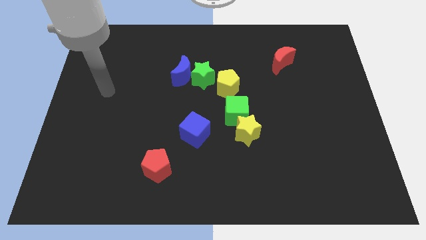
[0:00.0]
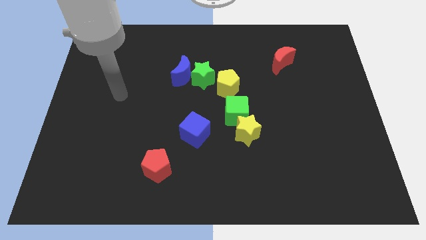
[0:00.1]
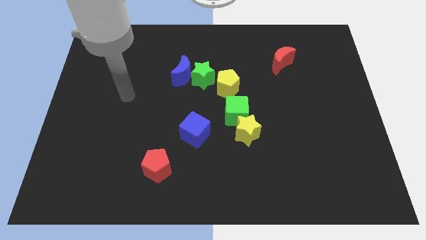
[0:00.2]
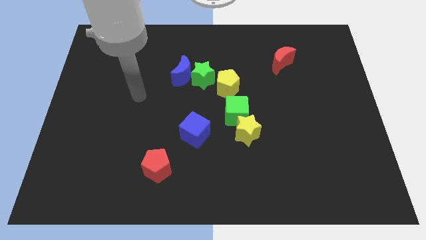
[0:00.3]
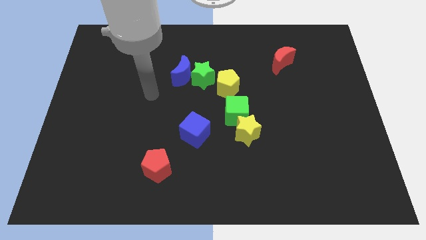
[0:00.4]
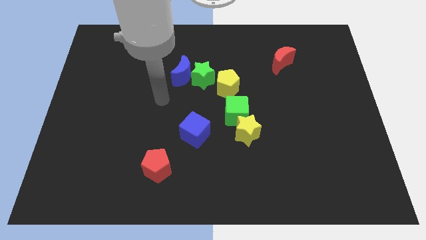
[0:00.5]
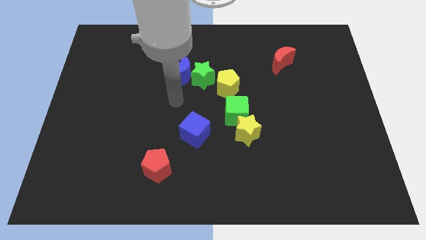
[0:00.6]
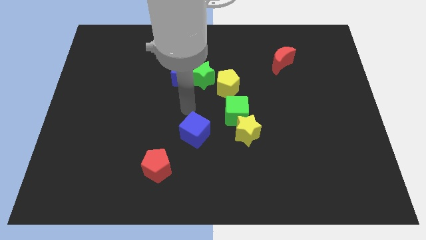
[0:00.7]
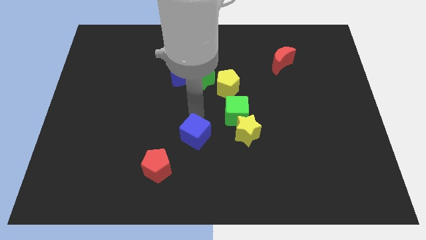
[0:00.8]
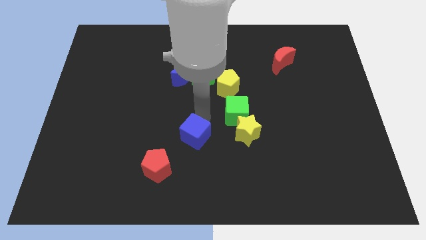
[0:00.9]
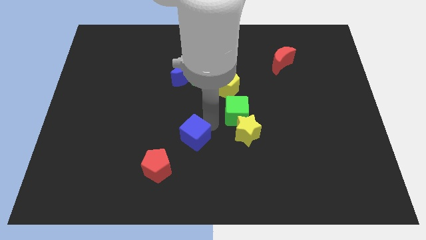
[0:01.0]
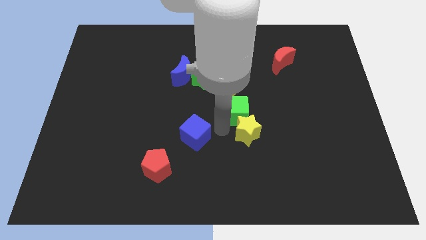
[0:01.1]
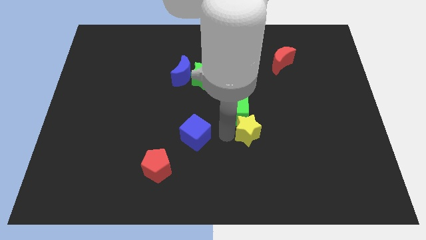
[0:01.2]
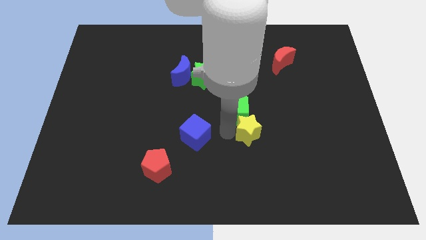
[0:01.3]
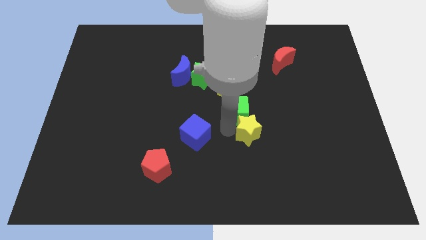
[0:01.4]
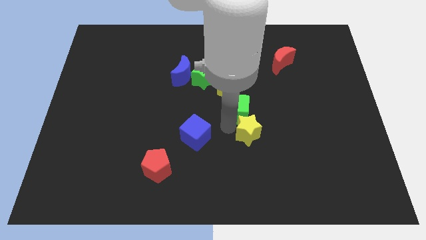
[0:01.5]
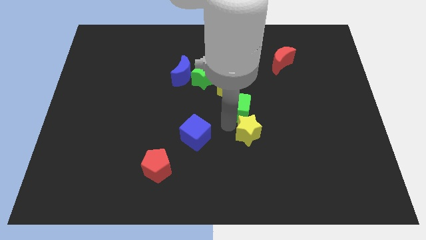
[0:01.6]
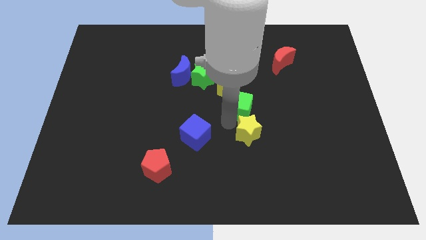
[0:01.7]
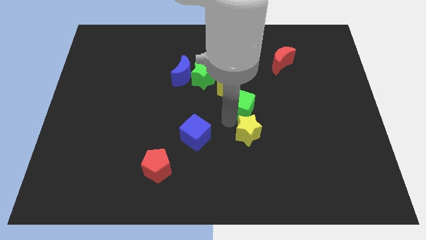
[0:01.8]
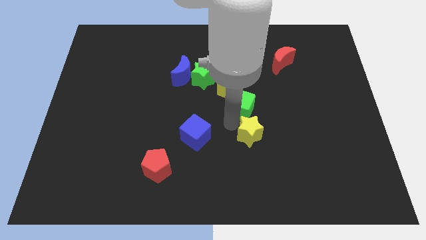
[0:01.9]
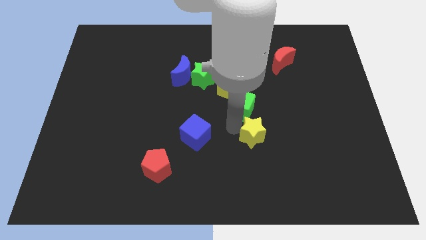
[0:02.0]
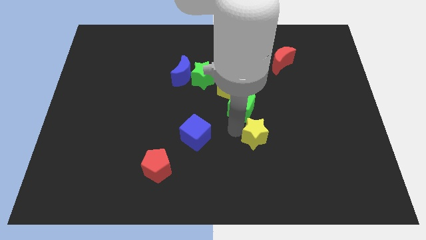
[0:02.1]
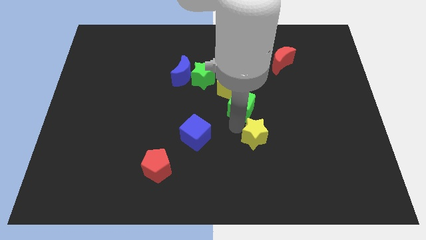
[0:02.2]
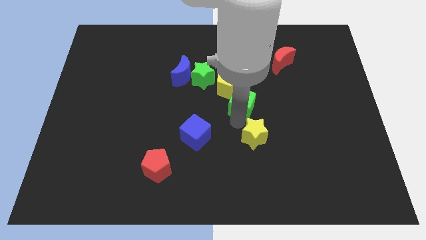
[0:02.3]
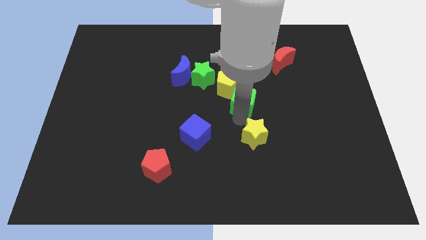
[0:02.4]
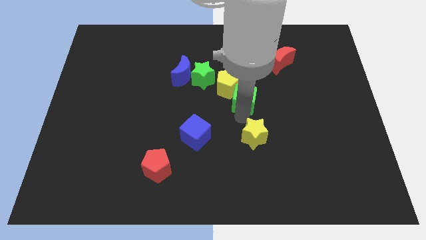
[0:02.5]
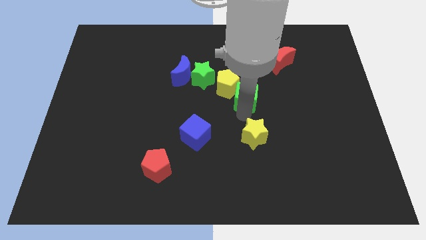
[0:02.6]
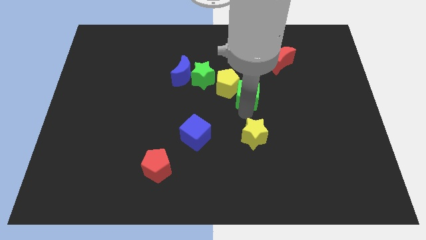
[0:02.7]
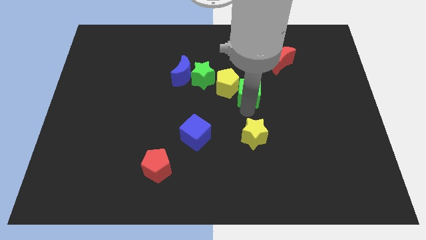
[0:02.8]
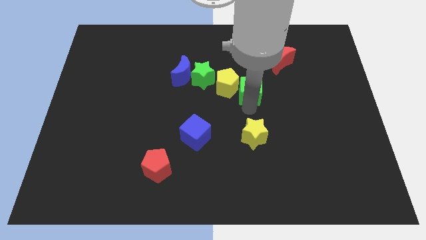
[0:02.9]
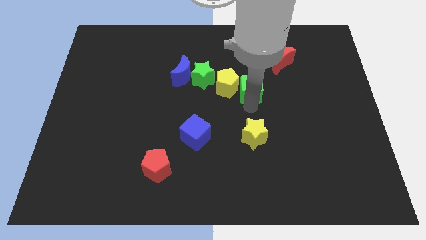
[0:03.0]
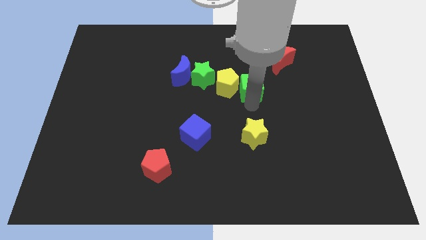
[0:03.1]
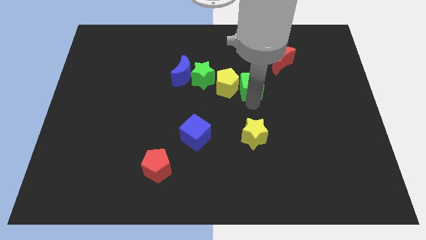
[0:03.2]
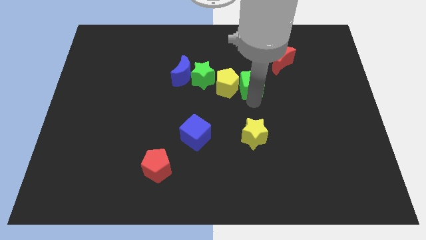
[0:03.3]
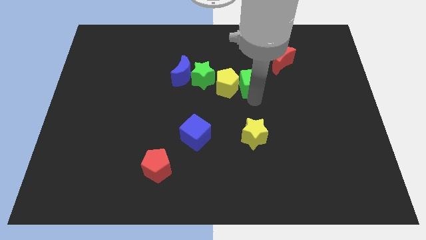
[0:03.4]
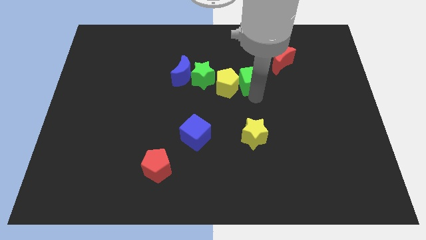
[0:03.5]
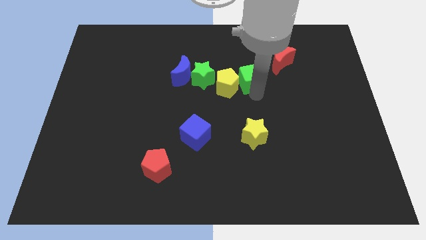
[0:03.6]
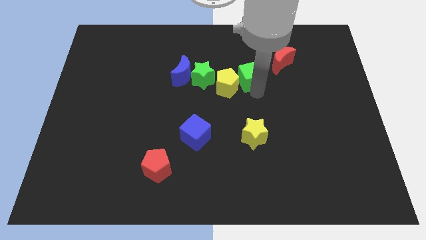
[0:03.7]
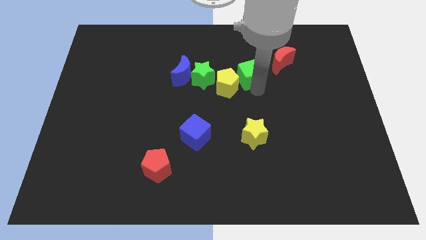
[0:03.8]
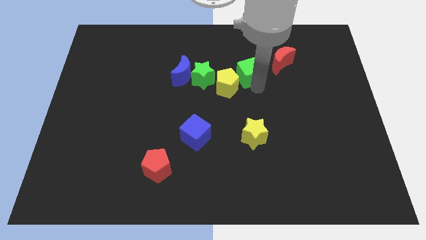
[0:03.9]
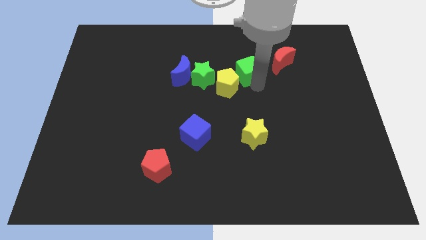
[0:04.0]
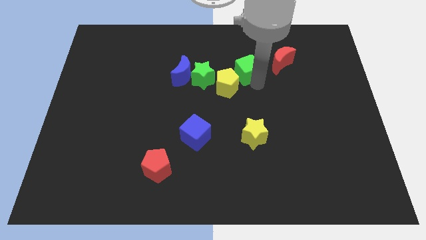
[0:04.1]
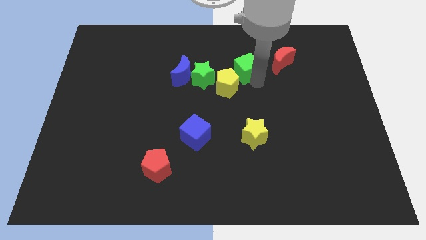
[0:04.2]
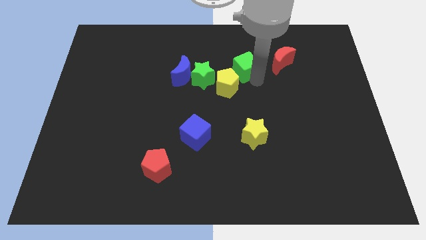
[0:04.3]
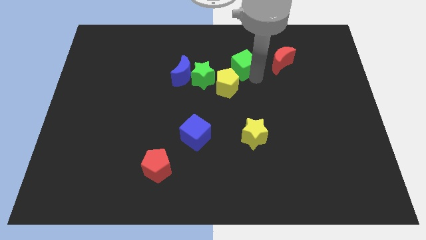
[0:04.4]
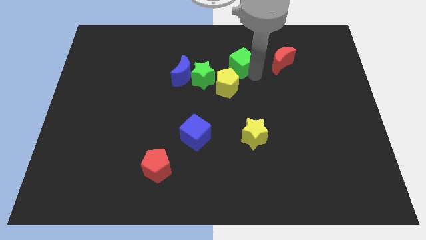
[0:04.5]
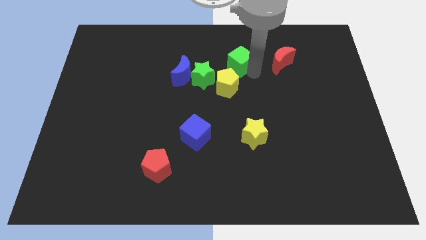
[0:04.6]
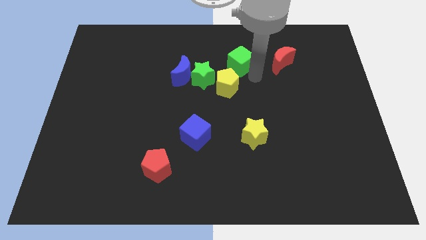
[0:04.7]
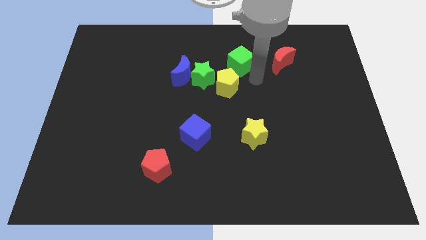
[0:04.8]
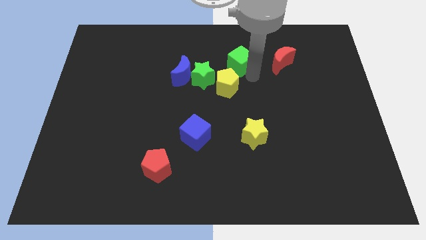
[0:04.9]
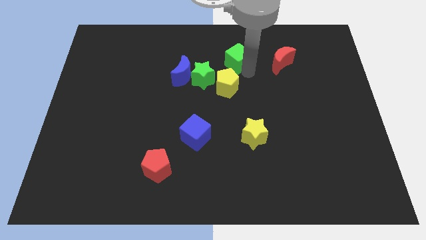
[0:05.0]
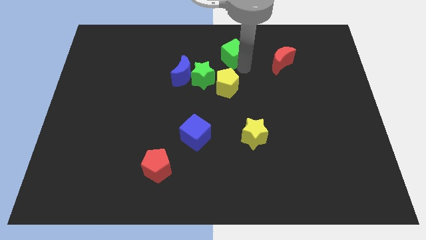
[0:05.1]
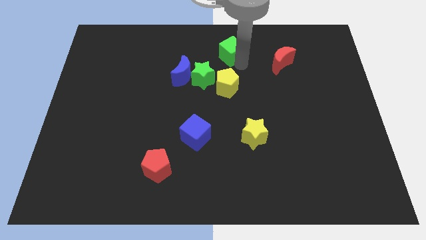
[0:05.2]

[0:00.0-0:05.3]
put the green cube to the towards your base

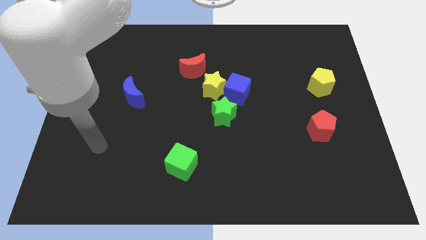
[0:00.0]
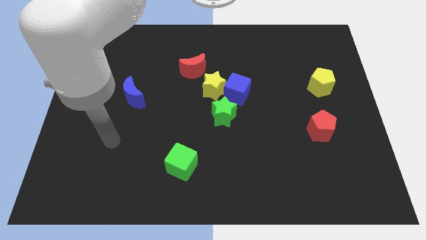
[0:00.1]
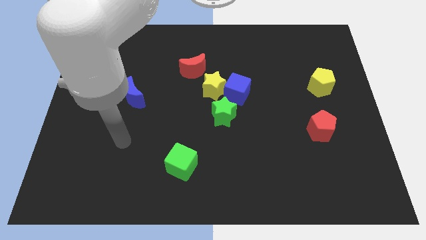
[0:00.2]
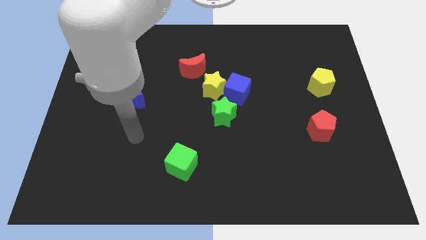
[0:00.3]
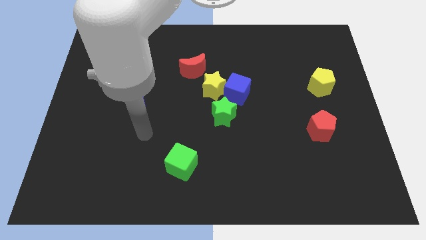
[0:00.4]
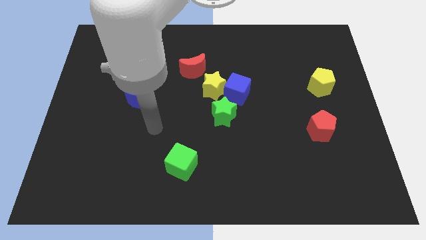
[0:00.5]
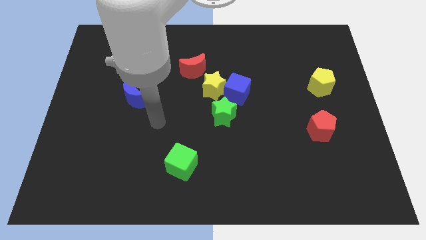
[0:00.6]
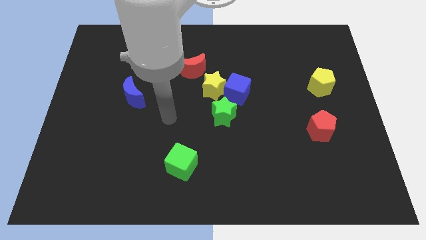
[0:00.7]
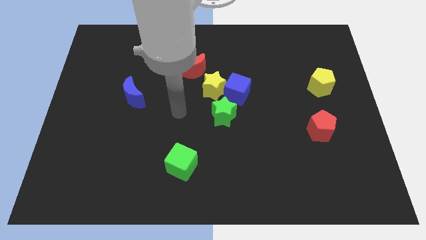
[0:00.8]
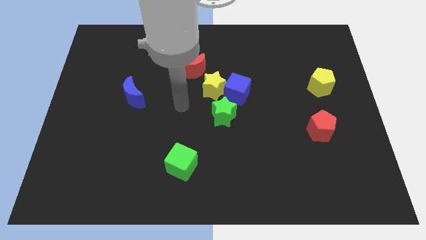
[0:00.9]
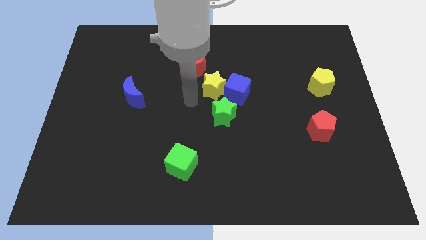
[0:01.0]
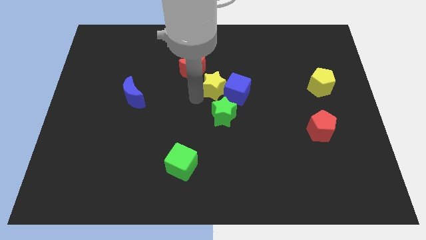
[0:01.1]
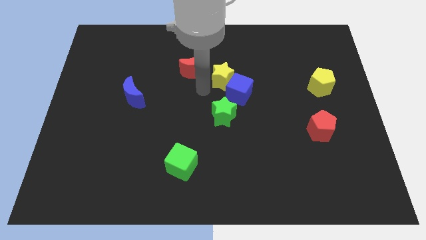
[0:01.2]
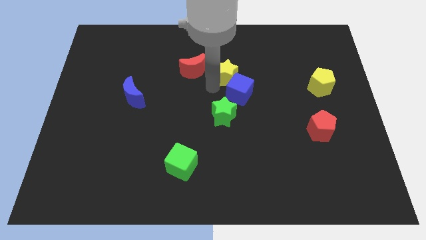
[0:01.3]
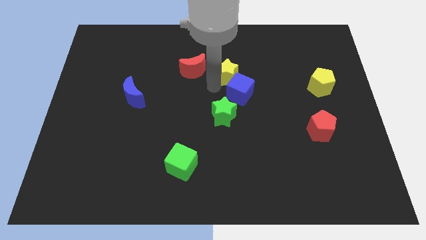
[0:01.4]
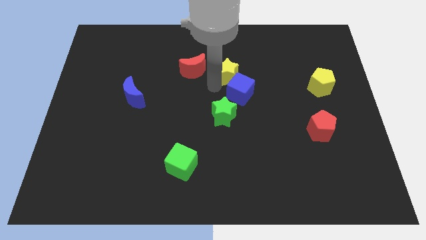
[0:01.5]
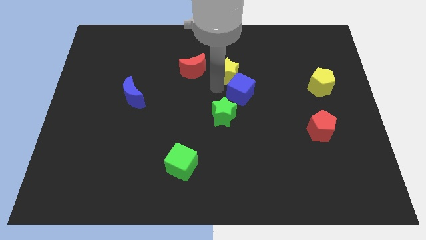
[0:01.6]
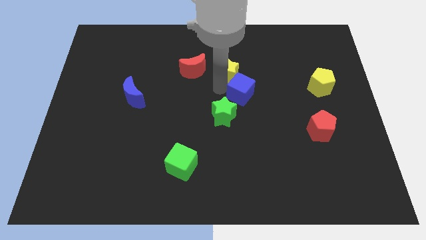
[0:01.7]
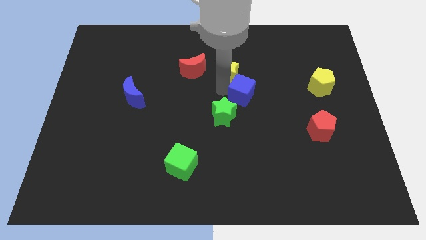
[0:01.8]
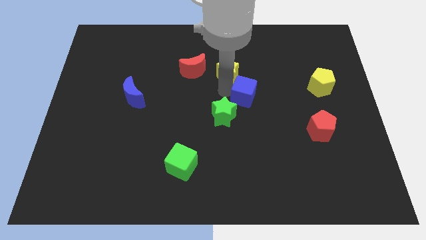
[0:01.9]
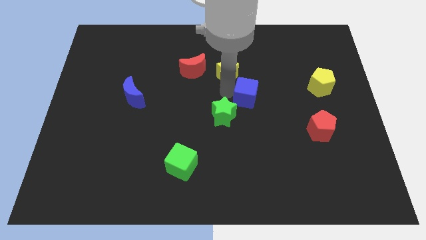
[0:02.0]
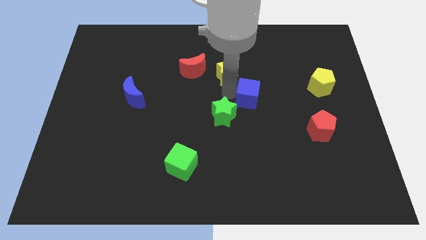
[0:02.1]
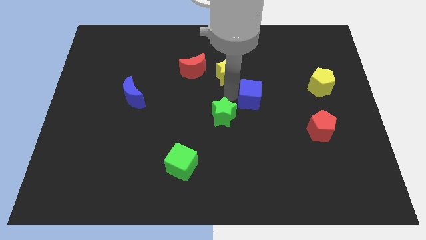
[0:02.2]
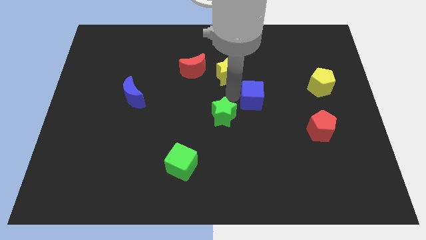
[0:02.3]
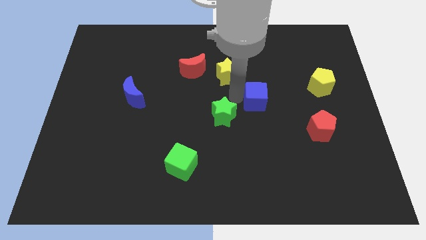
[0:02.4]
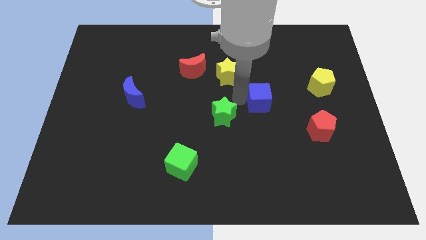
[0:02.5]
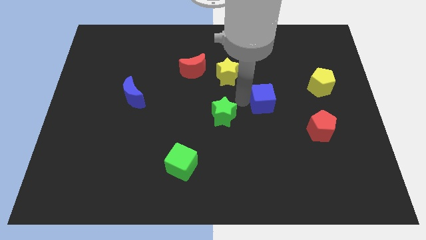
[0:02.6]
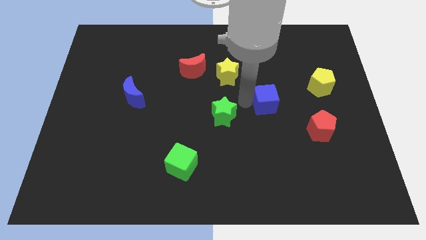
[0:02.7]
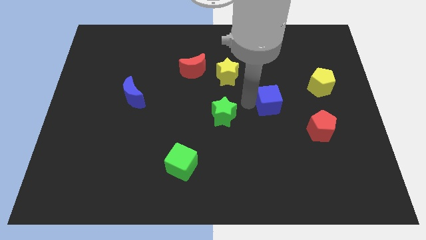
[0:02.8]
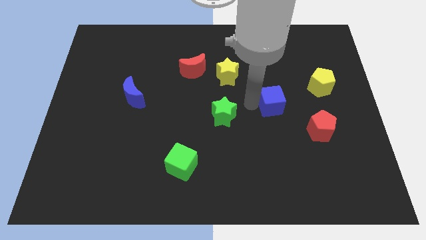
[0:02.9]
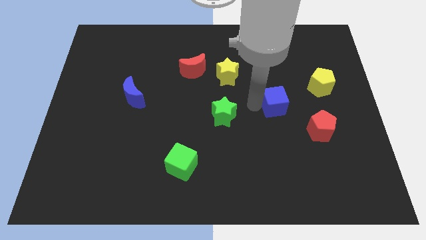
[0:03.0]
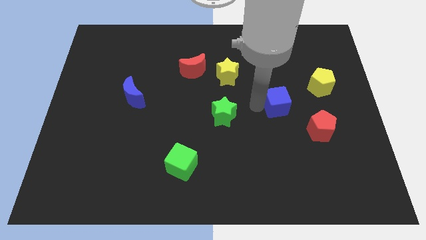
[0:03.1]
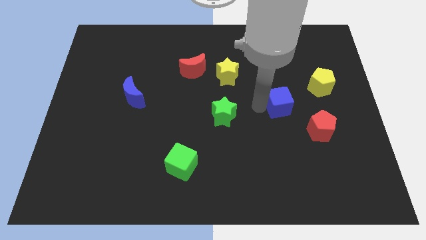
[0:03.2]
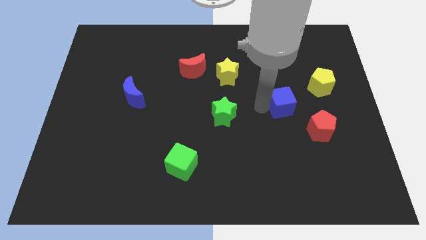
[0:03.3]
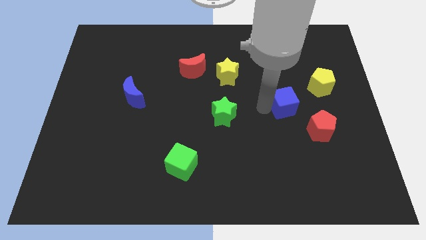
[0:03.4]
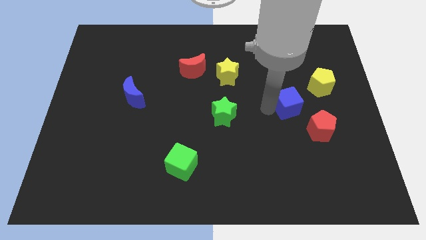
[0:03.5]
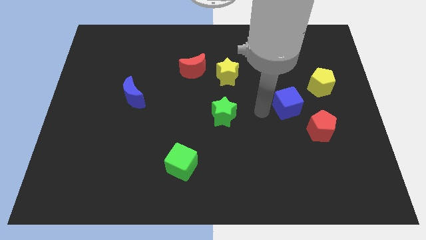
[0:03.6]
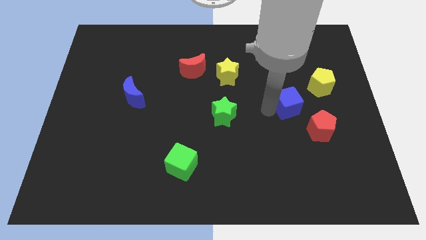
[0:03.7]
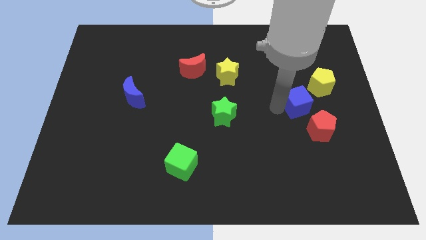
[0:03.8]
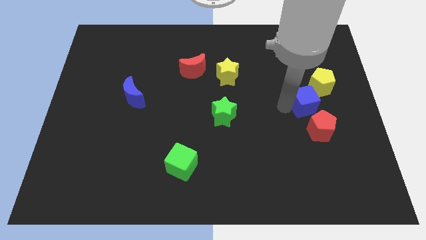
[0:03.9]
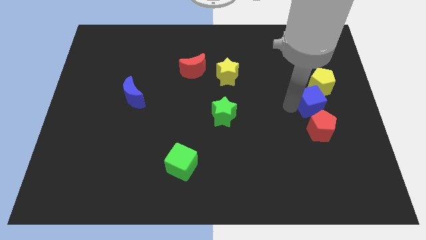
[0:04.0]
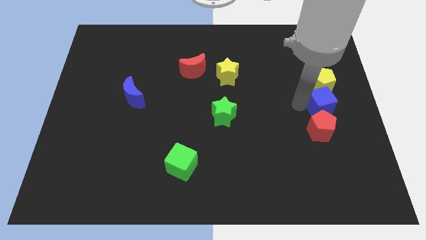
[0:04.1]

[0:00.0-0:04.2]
slide the blue cube to the center right
